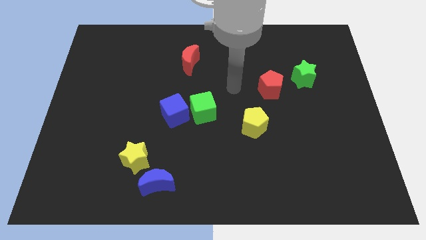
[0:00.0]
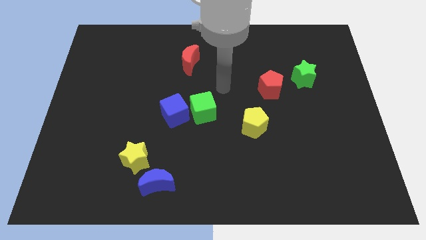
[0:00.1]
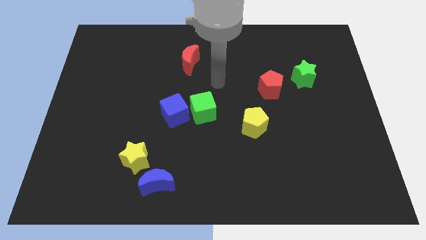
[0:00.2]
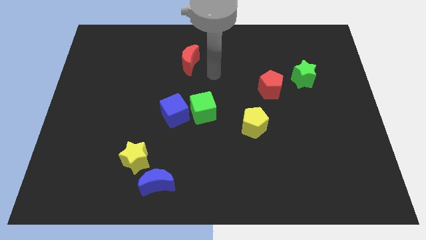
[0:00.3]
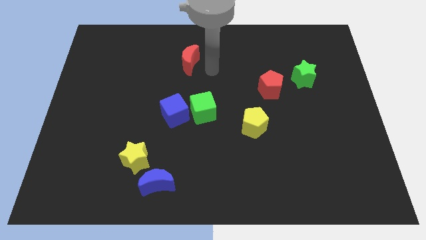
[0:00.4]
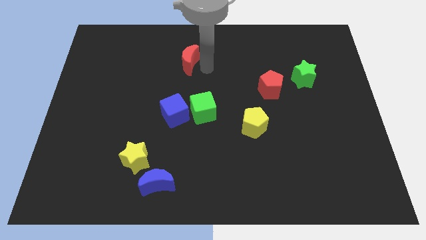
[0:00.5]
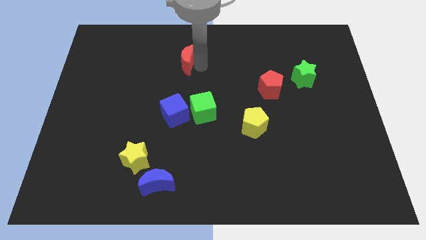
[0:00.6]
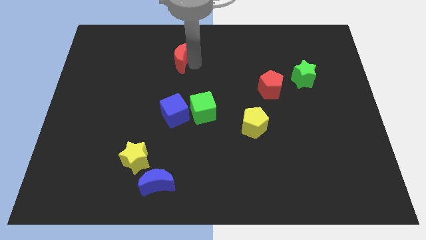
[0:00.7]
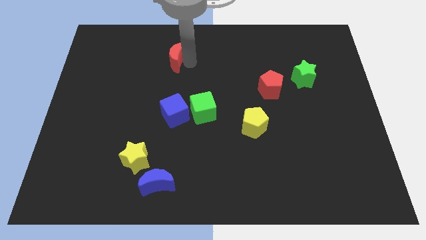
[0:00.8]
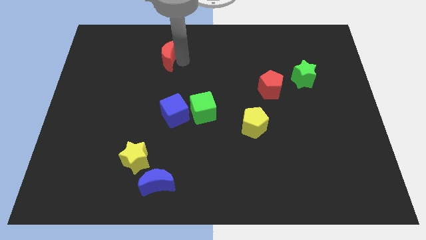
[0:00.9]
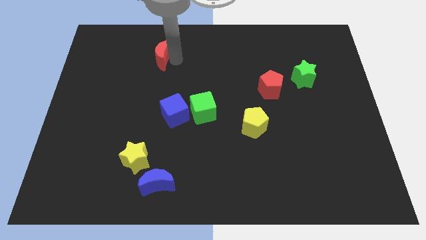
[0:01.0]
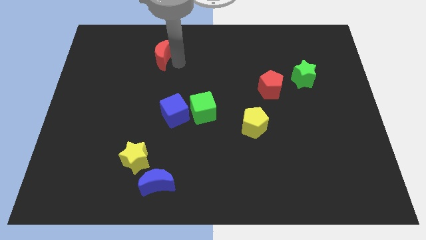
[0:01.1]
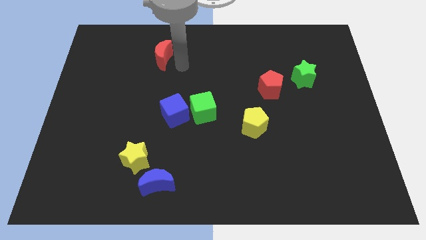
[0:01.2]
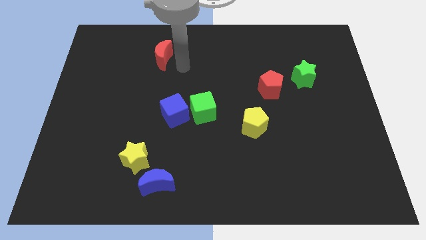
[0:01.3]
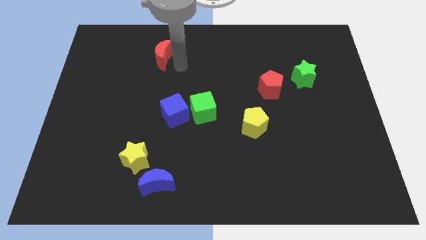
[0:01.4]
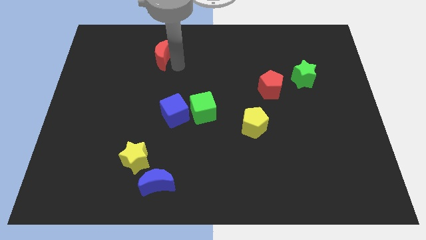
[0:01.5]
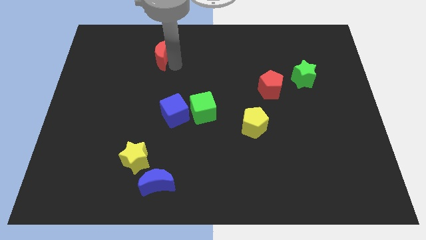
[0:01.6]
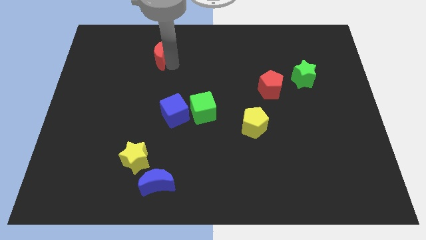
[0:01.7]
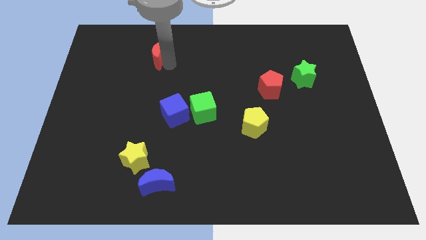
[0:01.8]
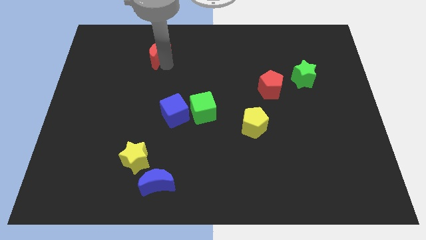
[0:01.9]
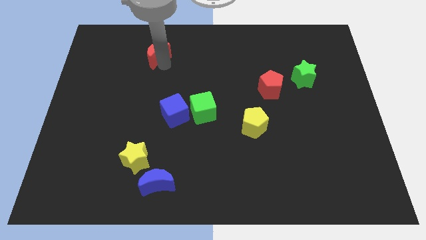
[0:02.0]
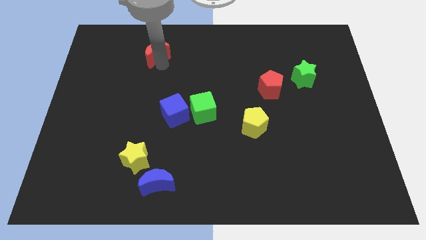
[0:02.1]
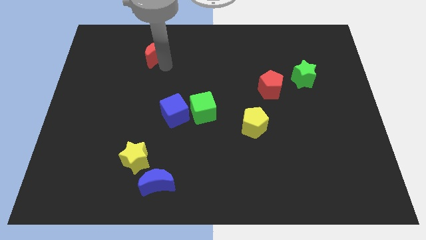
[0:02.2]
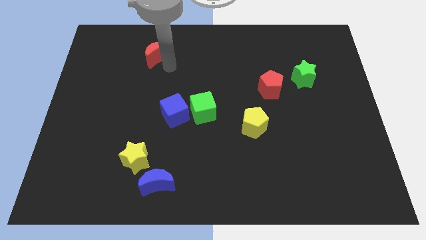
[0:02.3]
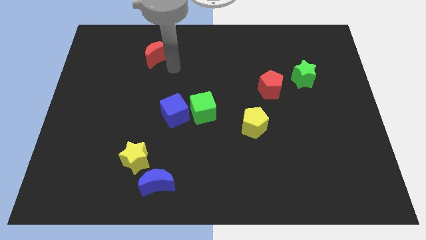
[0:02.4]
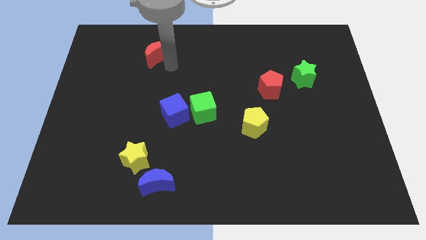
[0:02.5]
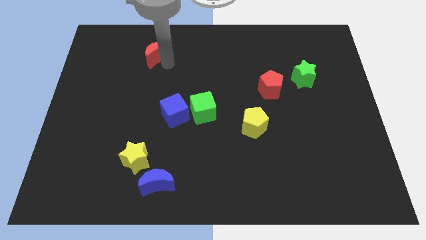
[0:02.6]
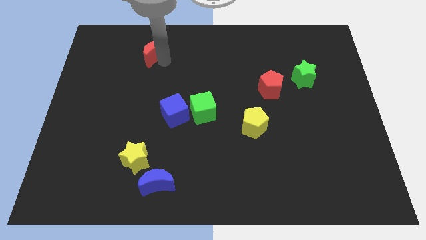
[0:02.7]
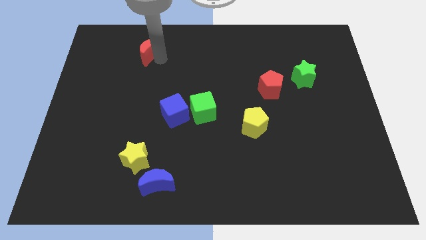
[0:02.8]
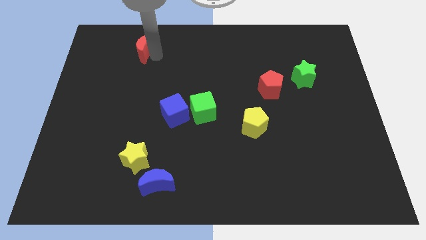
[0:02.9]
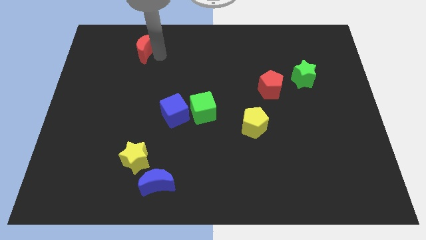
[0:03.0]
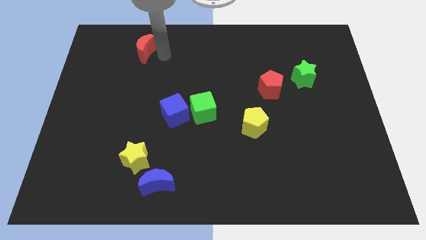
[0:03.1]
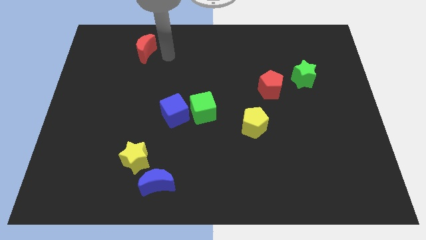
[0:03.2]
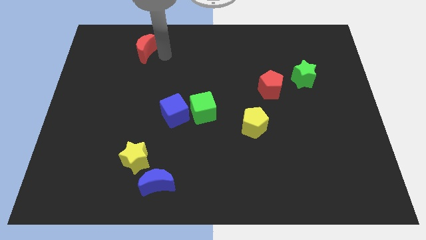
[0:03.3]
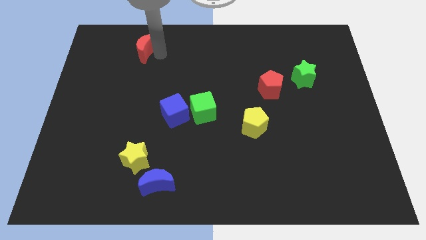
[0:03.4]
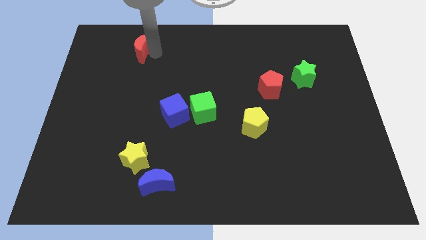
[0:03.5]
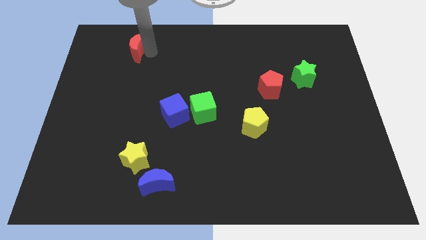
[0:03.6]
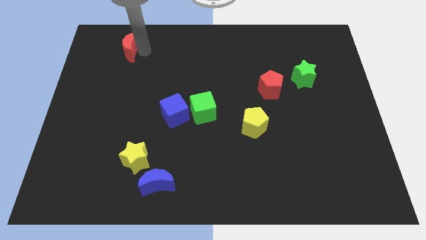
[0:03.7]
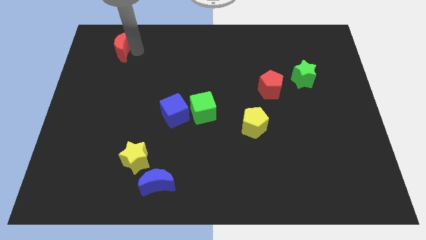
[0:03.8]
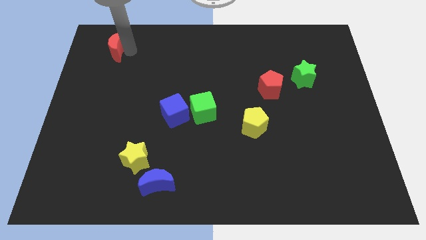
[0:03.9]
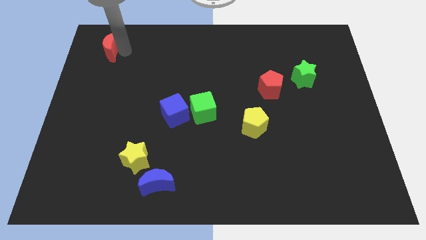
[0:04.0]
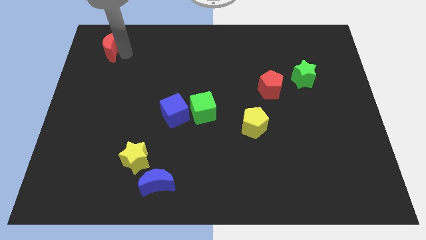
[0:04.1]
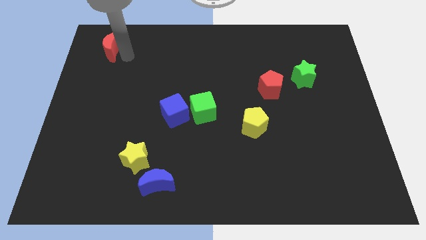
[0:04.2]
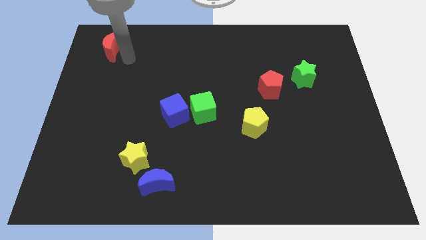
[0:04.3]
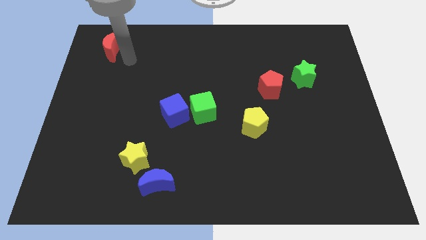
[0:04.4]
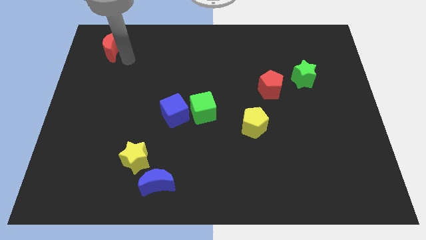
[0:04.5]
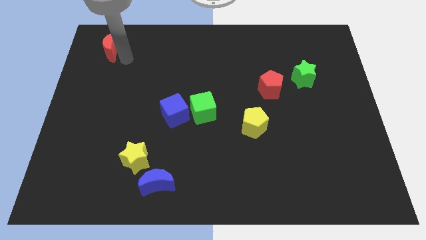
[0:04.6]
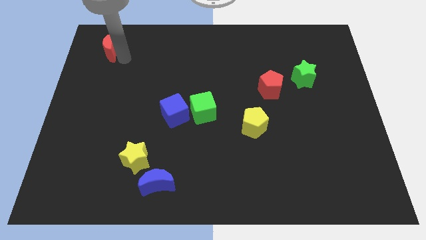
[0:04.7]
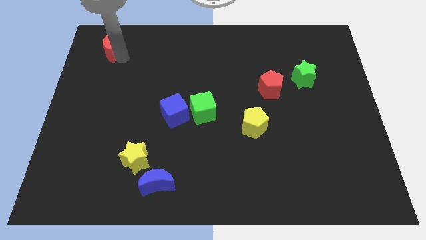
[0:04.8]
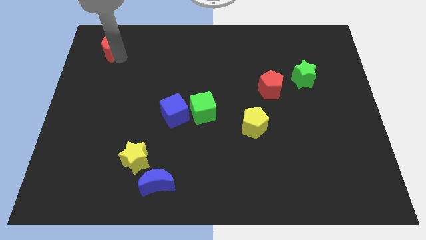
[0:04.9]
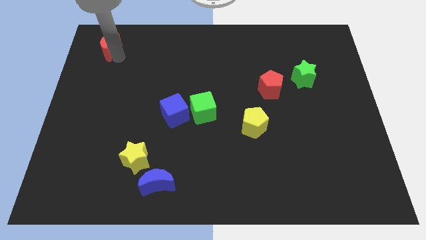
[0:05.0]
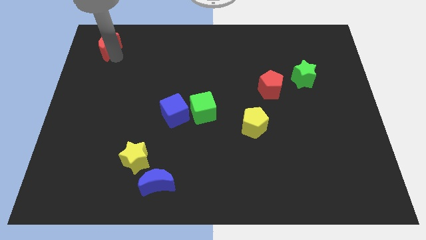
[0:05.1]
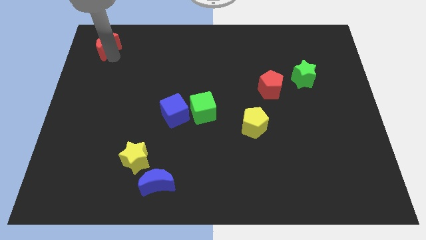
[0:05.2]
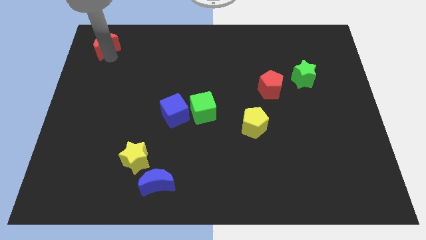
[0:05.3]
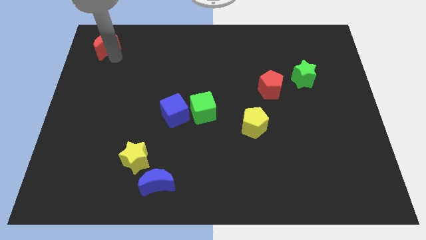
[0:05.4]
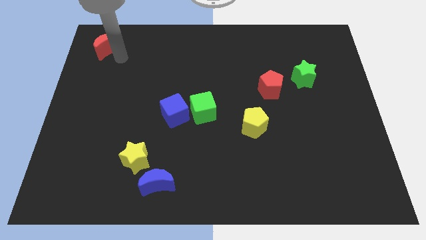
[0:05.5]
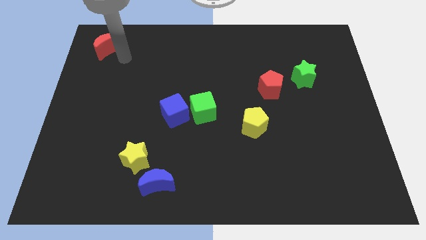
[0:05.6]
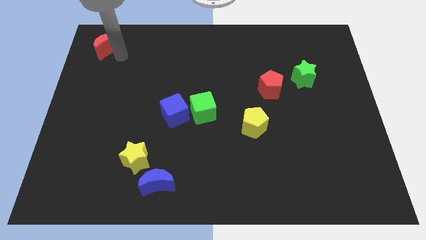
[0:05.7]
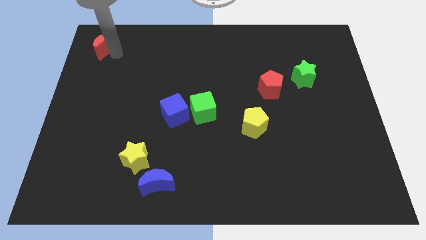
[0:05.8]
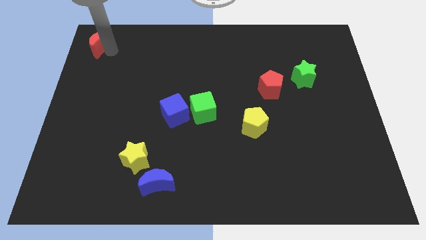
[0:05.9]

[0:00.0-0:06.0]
slide the red moon to the upper left corner
